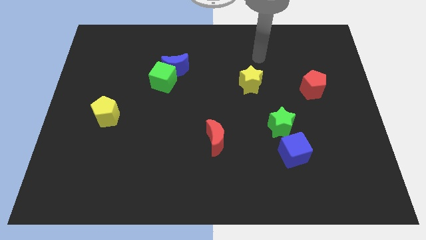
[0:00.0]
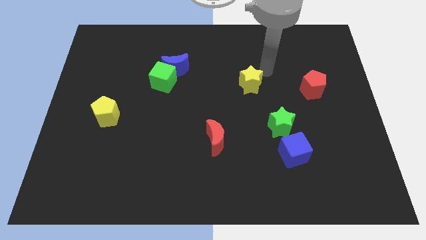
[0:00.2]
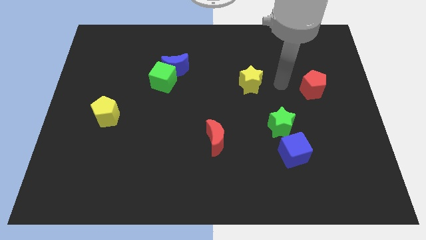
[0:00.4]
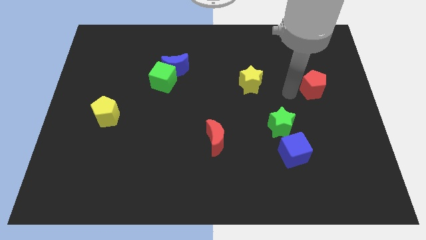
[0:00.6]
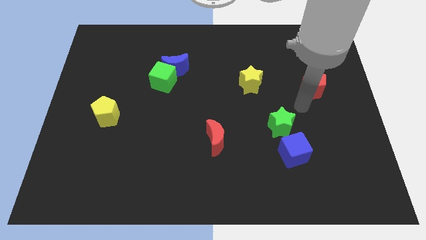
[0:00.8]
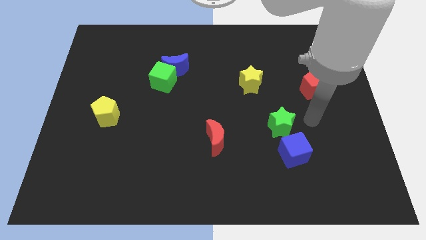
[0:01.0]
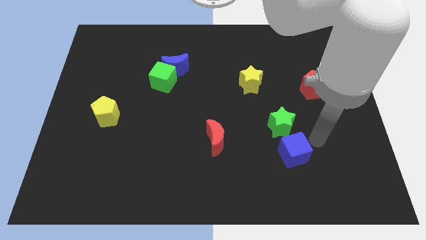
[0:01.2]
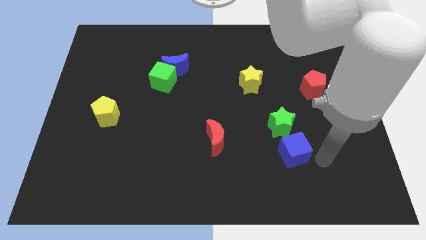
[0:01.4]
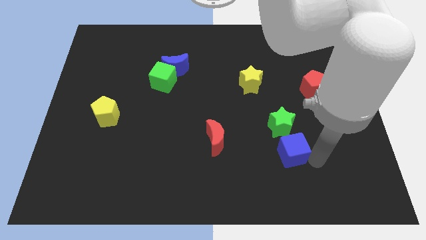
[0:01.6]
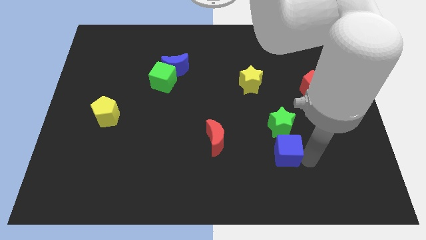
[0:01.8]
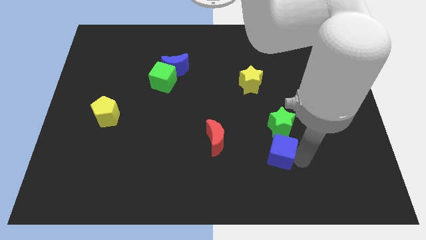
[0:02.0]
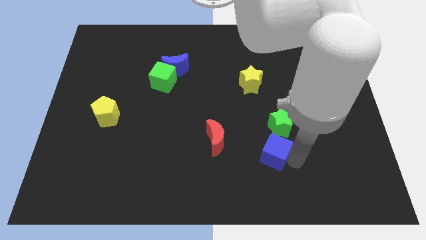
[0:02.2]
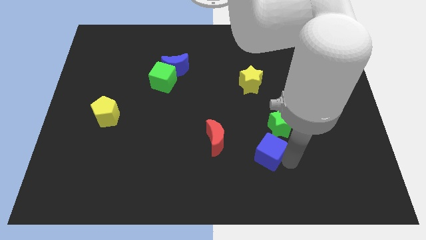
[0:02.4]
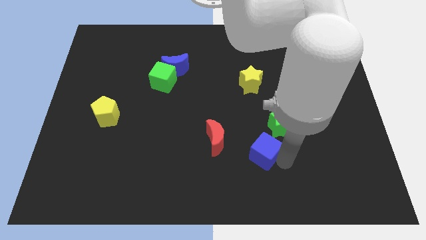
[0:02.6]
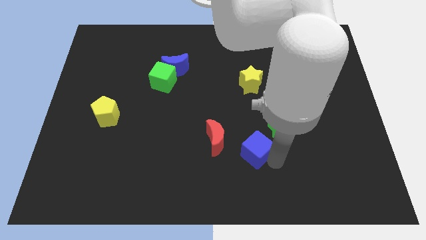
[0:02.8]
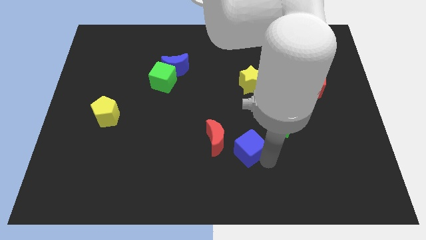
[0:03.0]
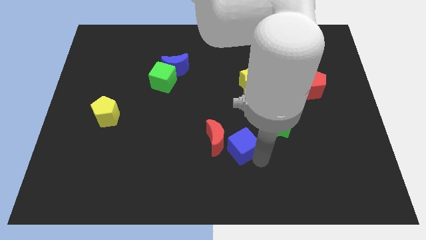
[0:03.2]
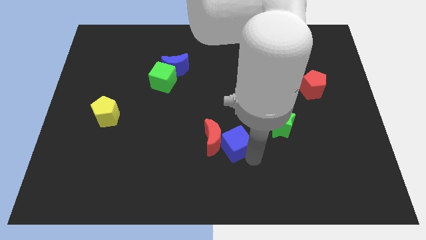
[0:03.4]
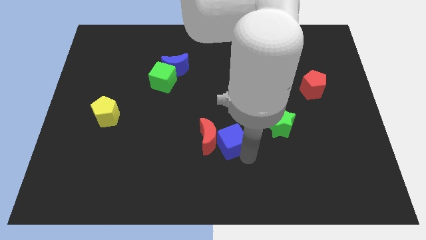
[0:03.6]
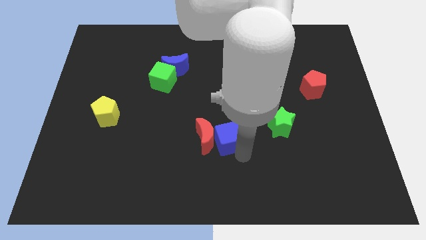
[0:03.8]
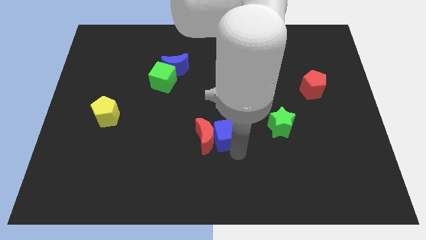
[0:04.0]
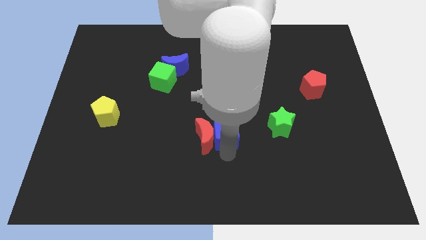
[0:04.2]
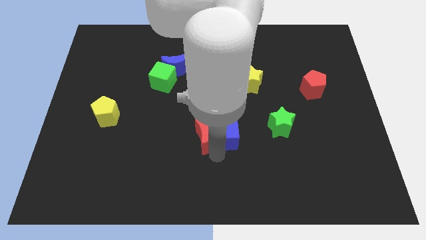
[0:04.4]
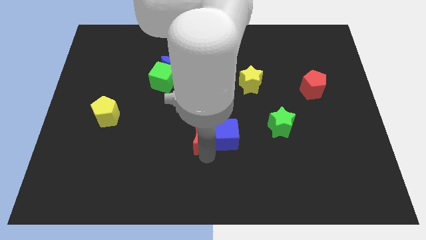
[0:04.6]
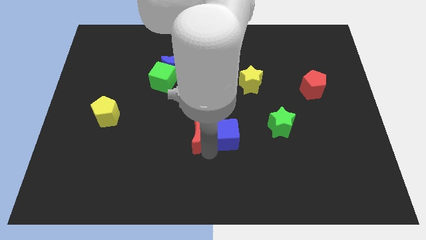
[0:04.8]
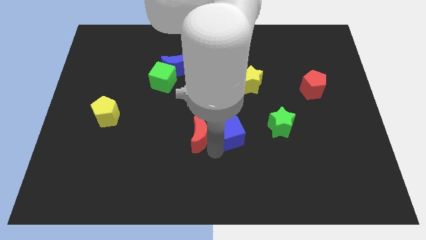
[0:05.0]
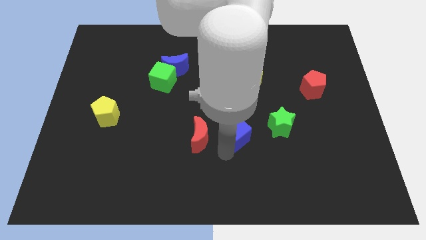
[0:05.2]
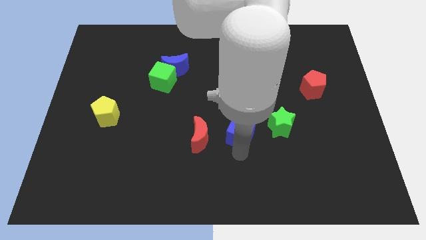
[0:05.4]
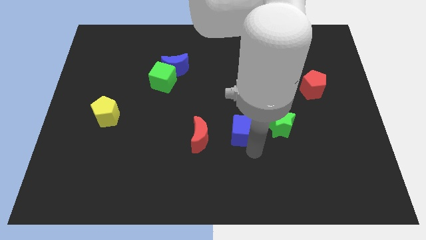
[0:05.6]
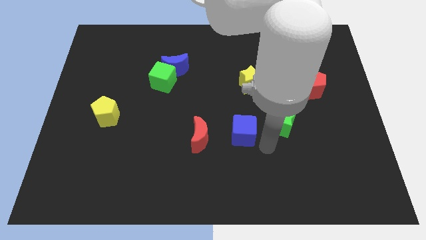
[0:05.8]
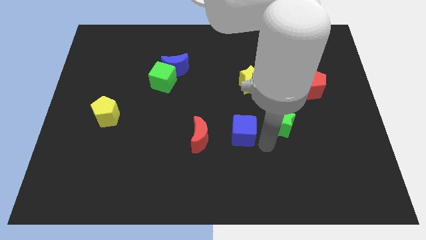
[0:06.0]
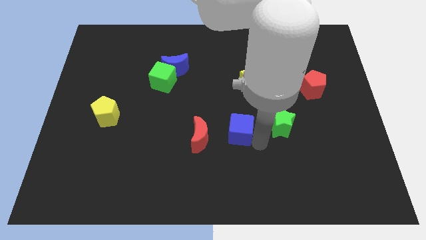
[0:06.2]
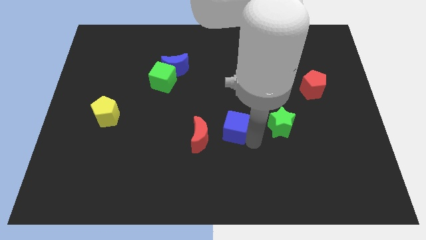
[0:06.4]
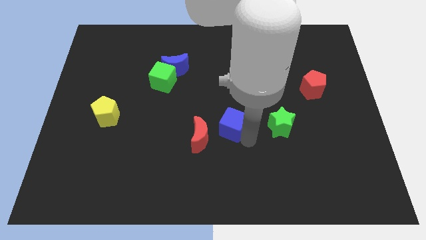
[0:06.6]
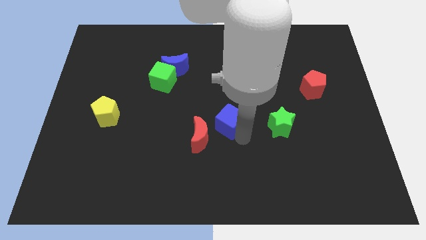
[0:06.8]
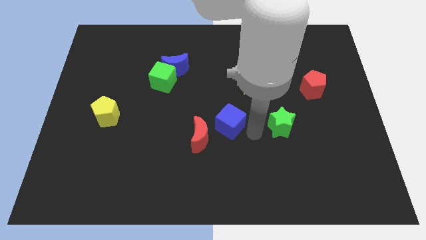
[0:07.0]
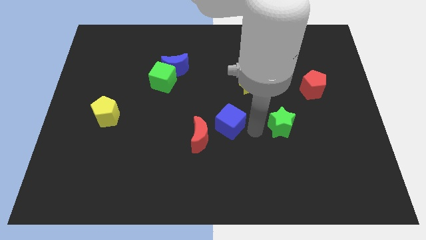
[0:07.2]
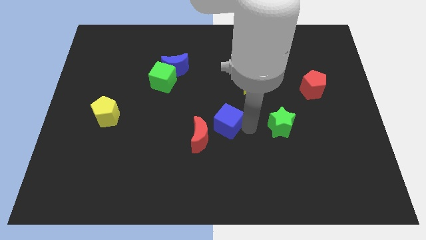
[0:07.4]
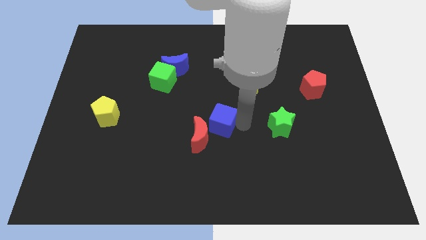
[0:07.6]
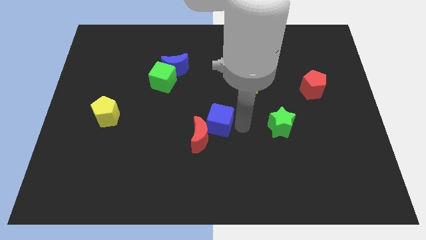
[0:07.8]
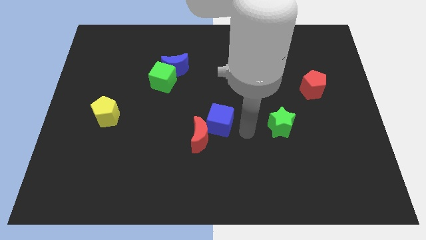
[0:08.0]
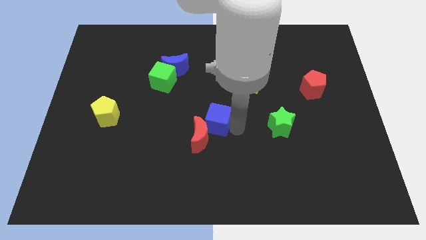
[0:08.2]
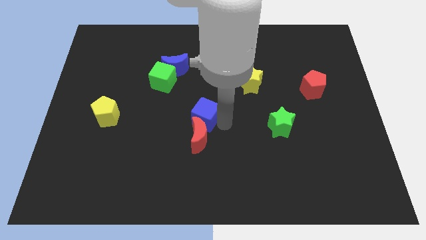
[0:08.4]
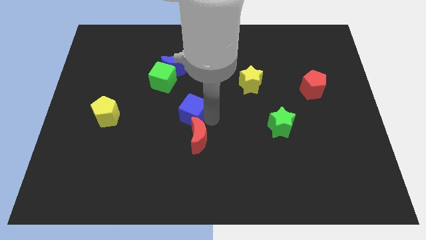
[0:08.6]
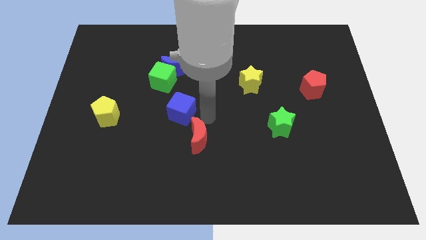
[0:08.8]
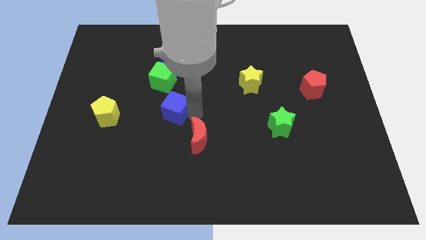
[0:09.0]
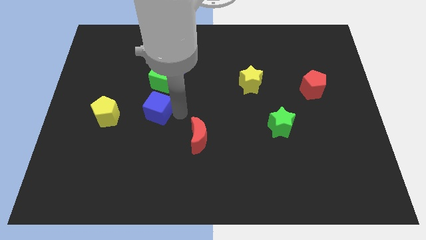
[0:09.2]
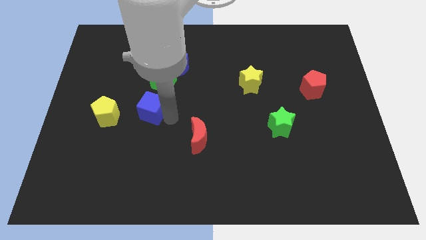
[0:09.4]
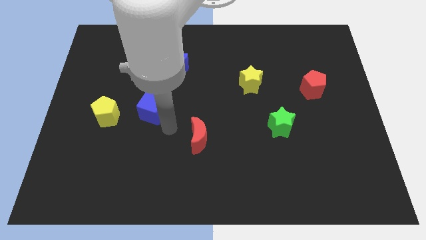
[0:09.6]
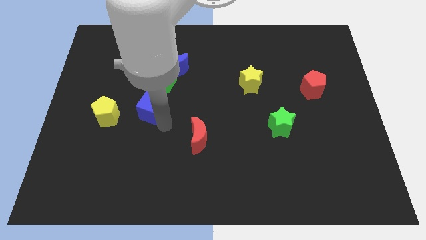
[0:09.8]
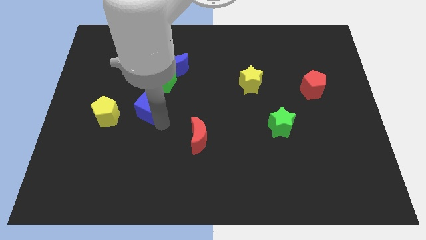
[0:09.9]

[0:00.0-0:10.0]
move the blue cube diagonally down and to the left of the green cube

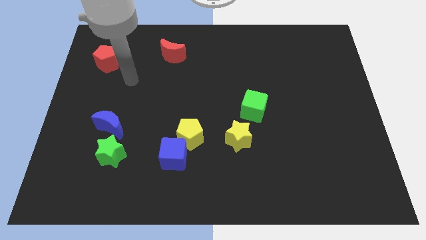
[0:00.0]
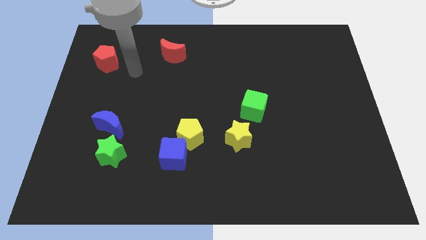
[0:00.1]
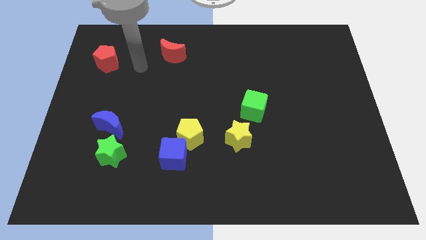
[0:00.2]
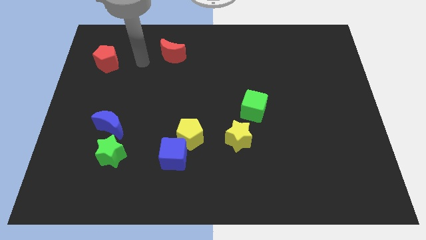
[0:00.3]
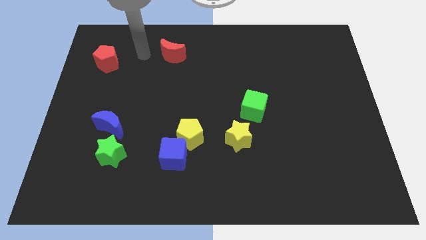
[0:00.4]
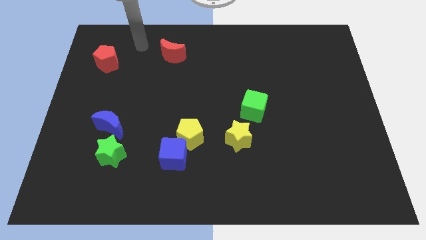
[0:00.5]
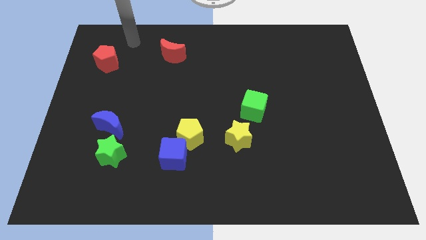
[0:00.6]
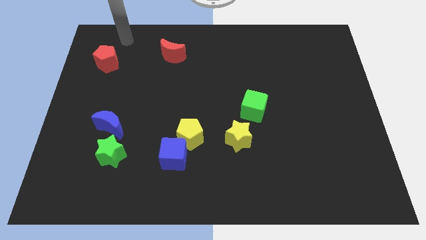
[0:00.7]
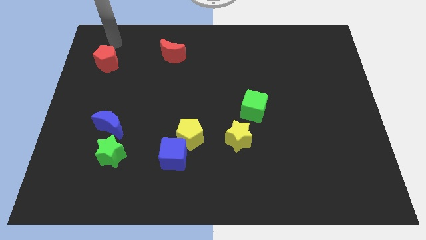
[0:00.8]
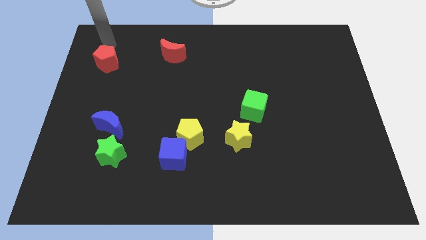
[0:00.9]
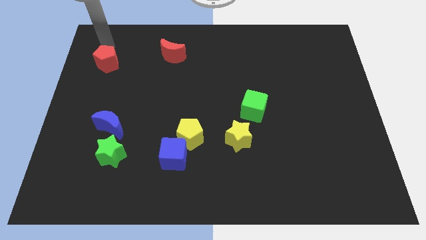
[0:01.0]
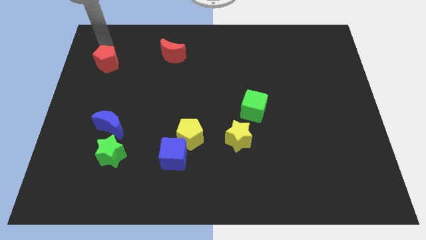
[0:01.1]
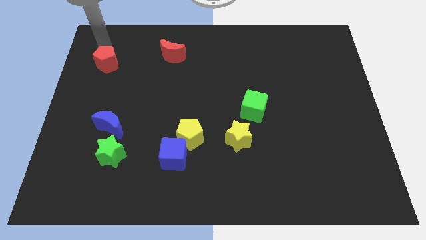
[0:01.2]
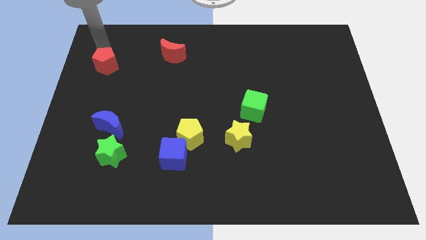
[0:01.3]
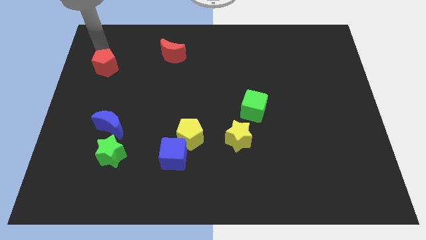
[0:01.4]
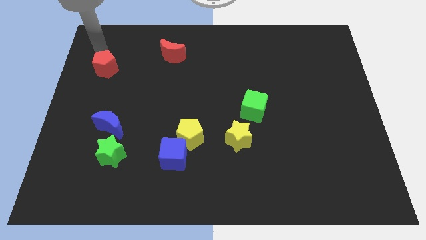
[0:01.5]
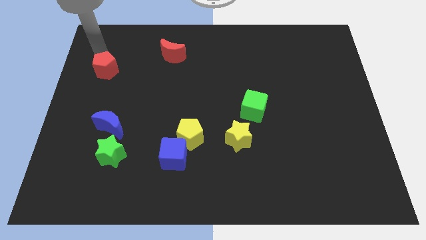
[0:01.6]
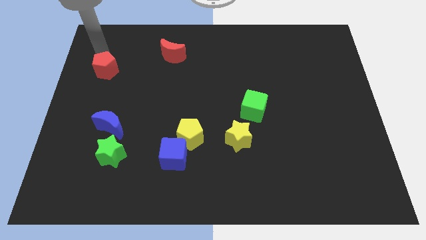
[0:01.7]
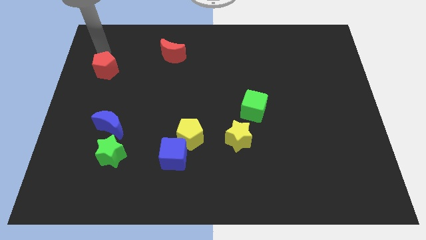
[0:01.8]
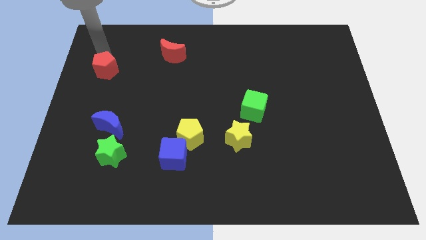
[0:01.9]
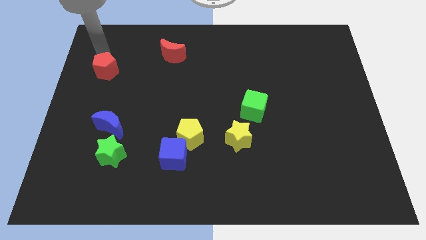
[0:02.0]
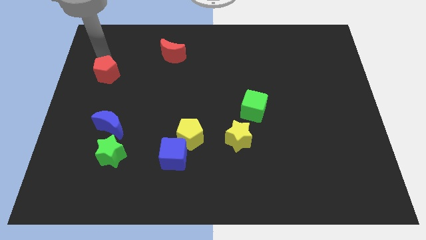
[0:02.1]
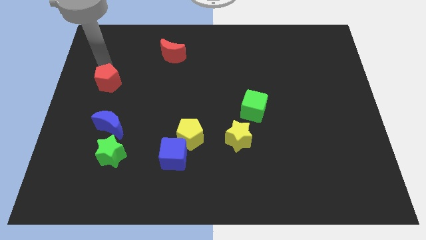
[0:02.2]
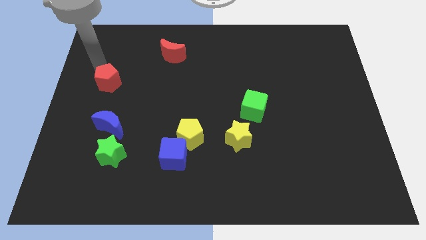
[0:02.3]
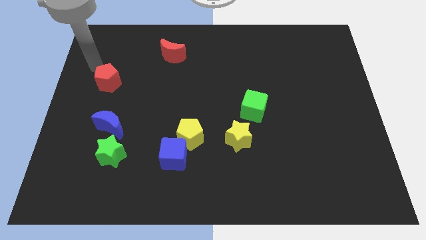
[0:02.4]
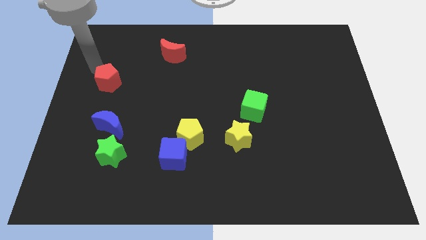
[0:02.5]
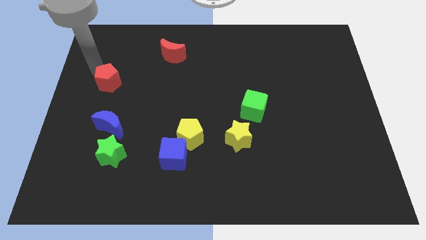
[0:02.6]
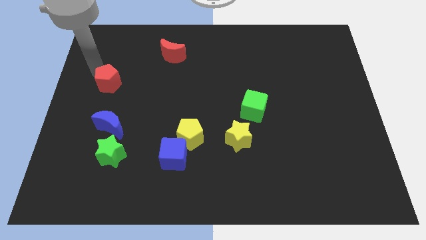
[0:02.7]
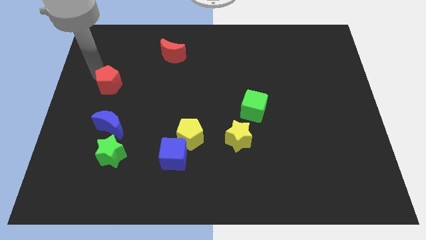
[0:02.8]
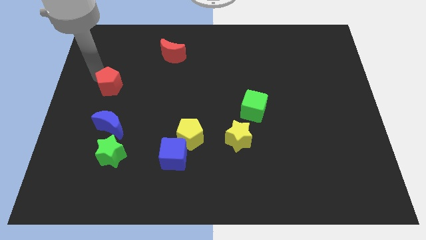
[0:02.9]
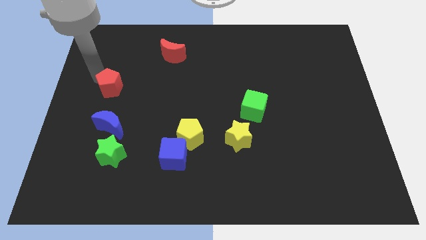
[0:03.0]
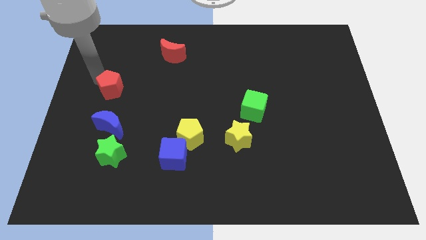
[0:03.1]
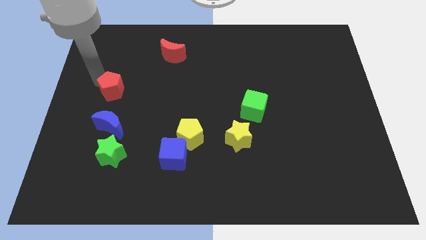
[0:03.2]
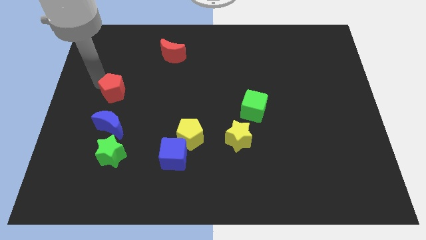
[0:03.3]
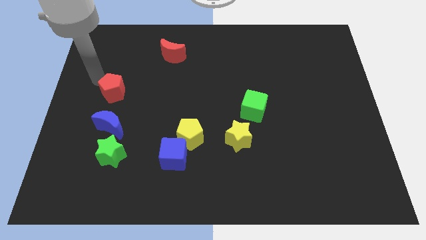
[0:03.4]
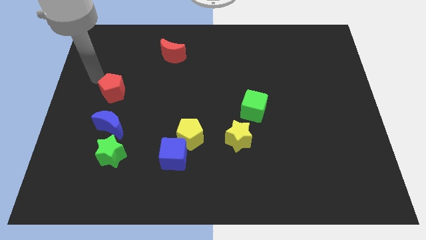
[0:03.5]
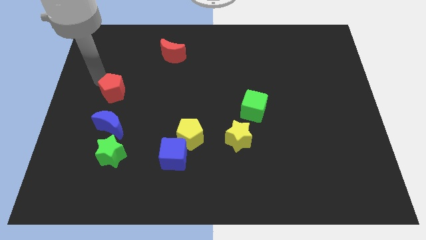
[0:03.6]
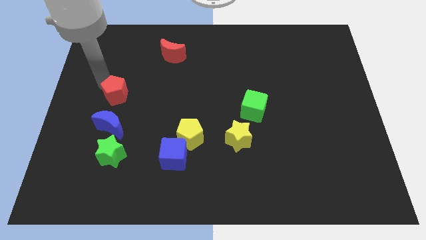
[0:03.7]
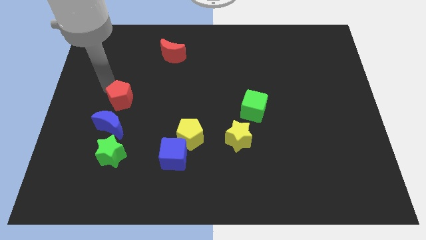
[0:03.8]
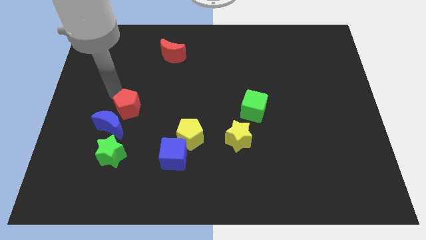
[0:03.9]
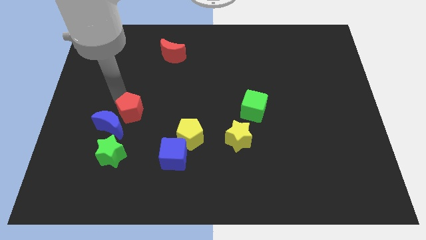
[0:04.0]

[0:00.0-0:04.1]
move the red pentagon to the right side of the blue moon
